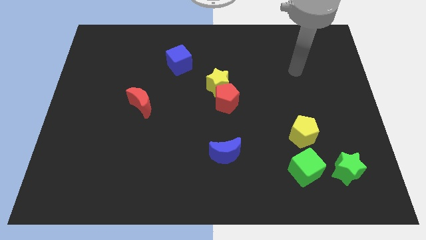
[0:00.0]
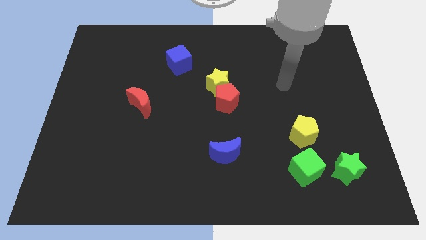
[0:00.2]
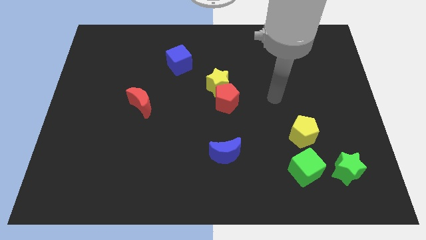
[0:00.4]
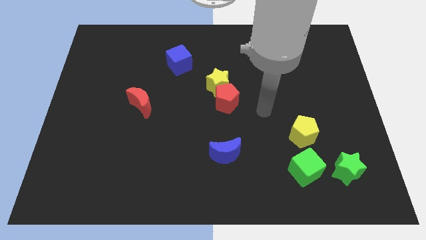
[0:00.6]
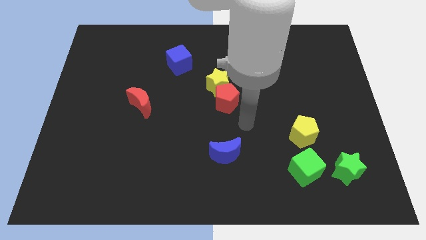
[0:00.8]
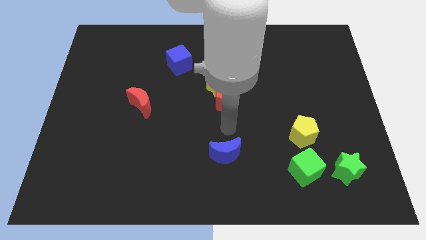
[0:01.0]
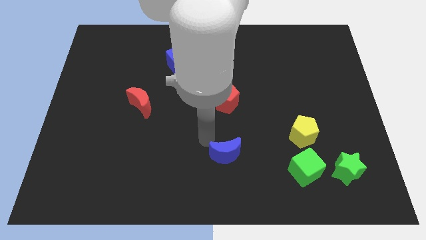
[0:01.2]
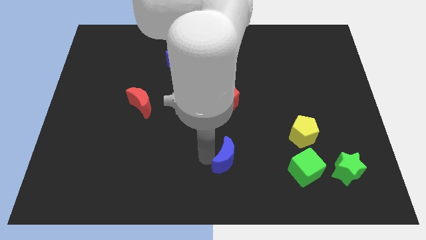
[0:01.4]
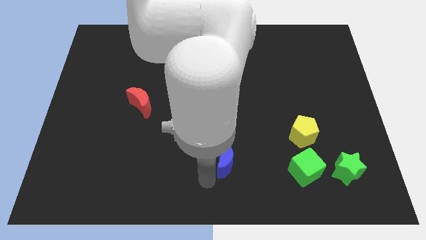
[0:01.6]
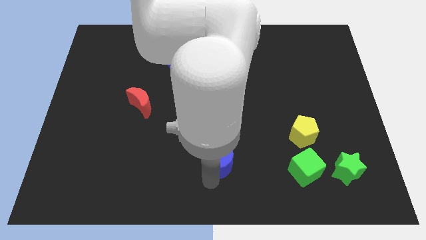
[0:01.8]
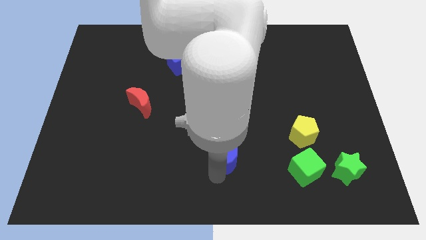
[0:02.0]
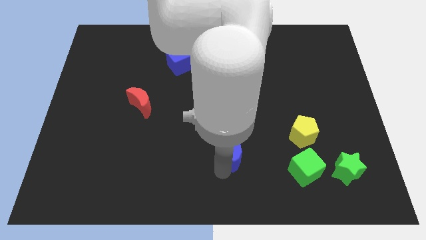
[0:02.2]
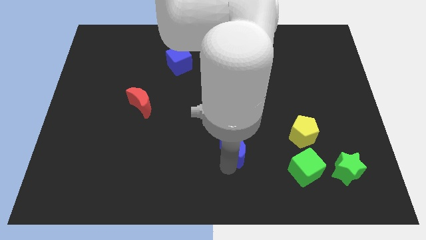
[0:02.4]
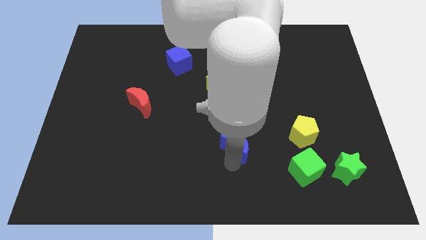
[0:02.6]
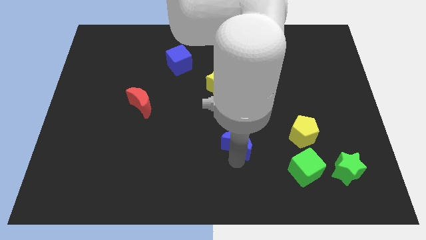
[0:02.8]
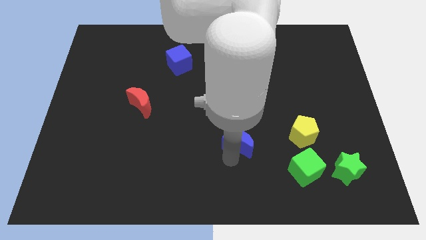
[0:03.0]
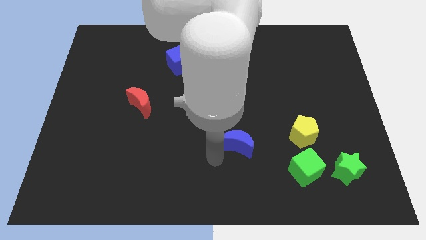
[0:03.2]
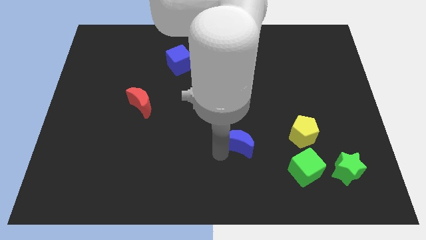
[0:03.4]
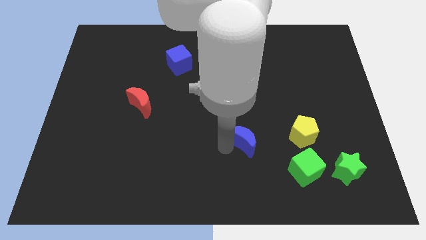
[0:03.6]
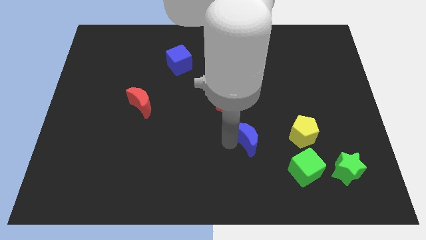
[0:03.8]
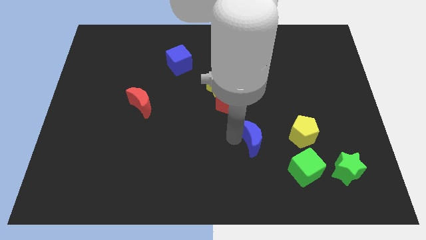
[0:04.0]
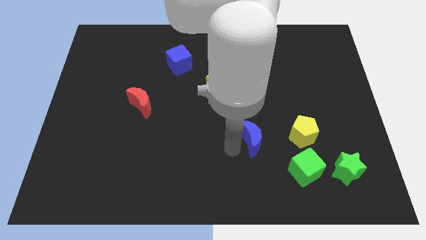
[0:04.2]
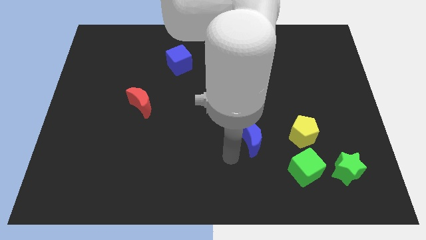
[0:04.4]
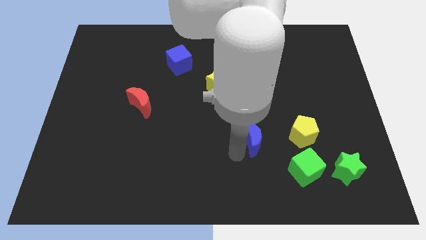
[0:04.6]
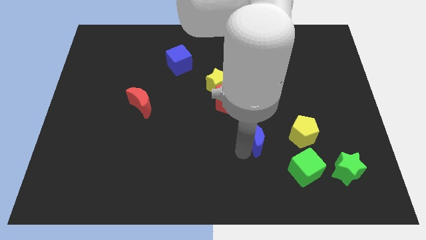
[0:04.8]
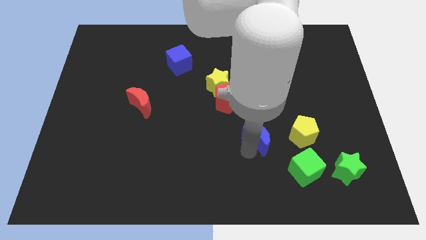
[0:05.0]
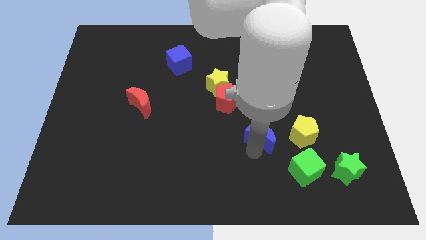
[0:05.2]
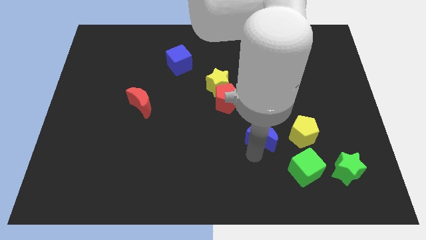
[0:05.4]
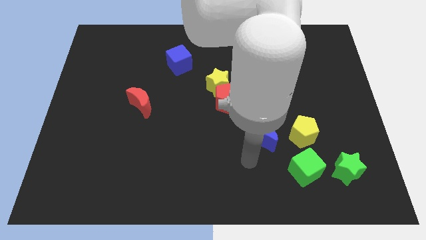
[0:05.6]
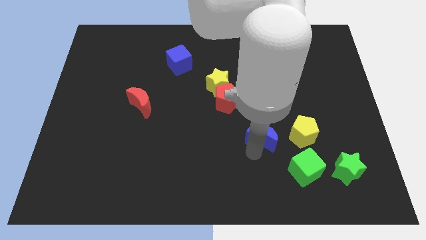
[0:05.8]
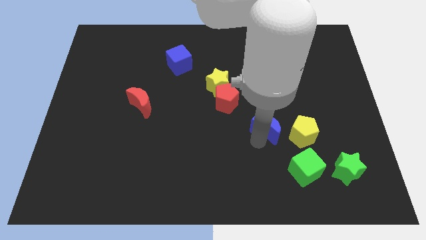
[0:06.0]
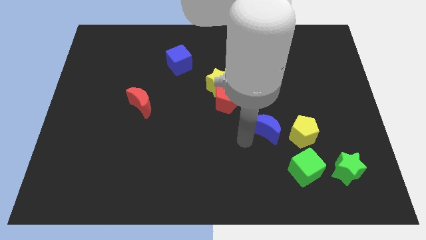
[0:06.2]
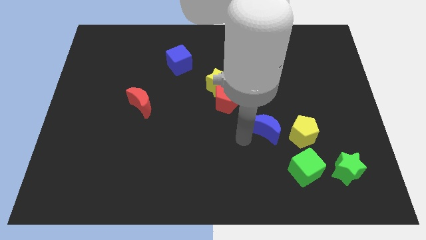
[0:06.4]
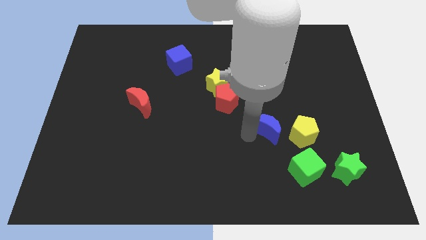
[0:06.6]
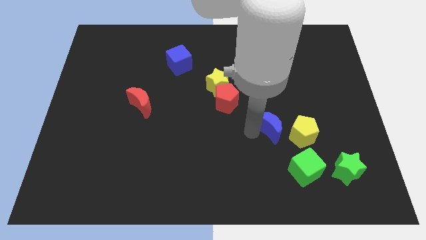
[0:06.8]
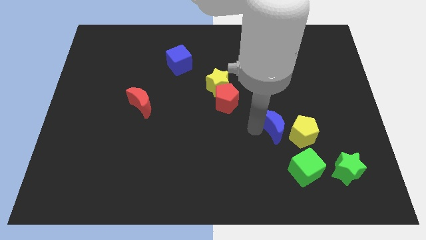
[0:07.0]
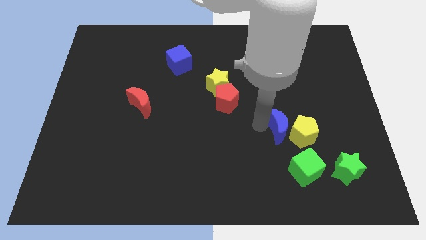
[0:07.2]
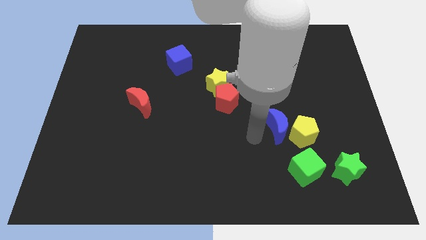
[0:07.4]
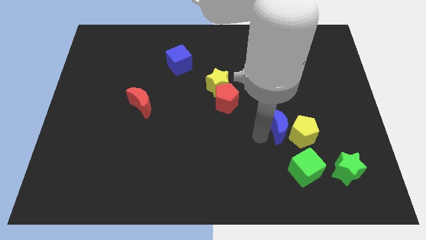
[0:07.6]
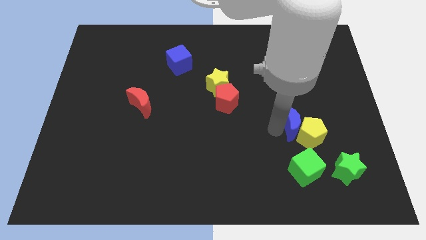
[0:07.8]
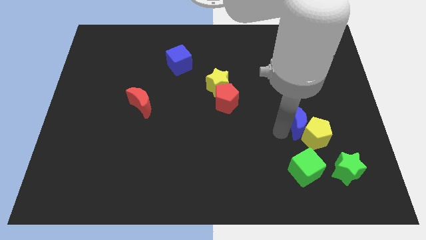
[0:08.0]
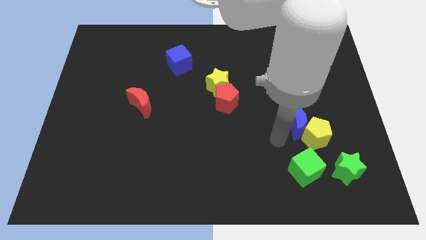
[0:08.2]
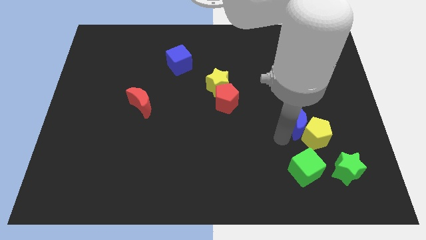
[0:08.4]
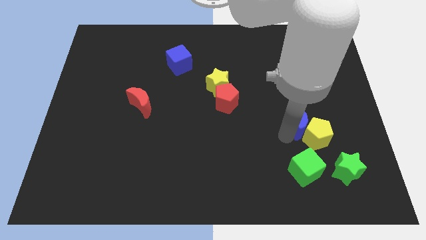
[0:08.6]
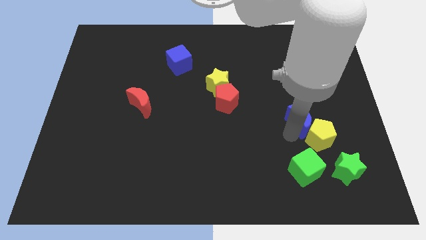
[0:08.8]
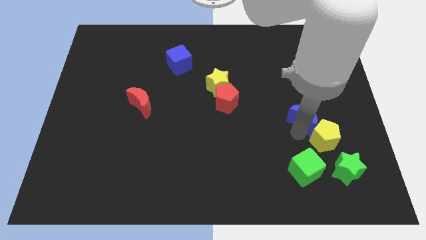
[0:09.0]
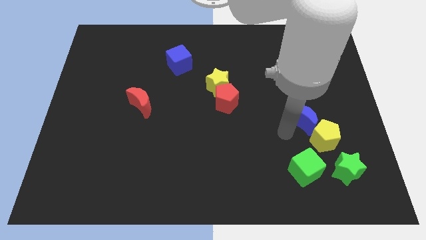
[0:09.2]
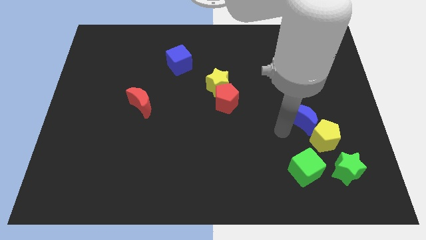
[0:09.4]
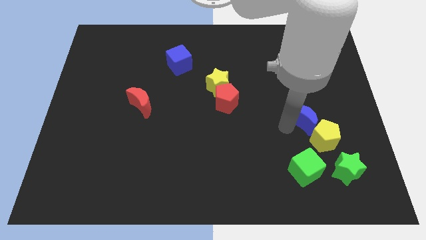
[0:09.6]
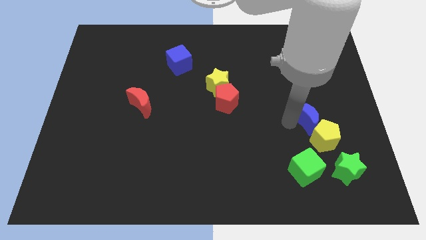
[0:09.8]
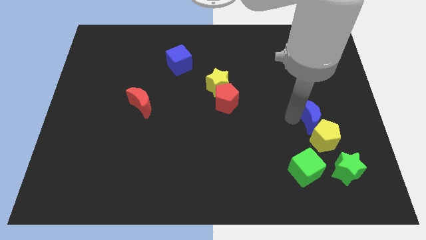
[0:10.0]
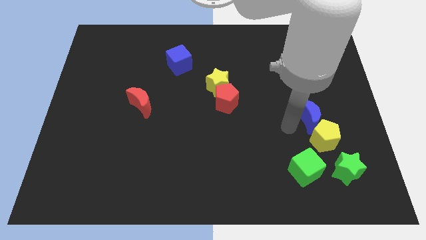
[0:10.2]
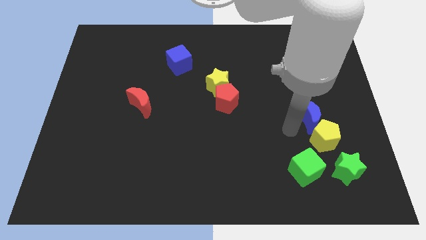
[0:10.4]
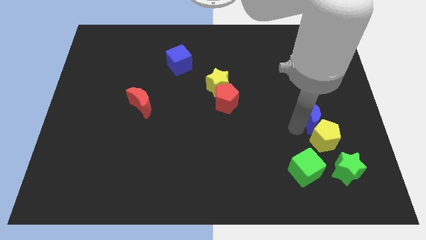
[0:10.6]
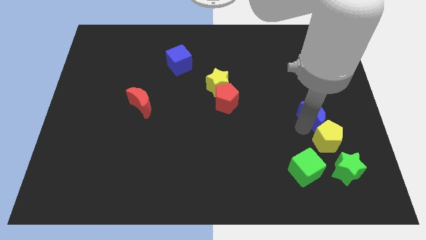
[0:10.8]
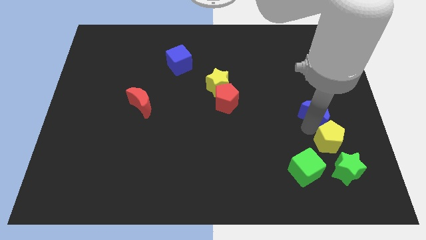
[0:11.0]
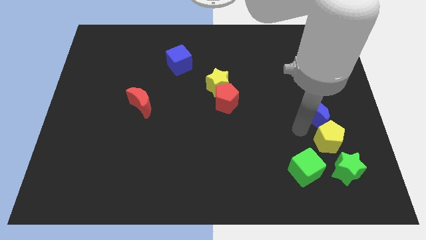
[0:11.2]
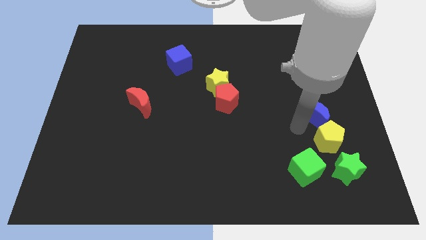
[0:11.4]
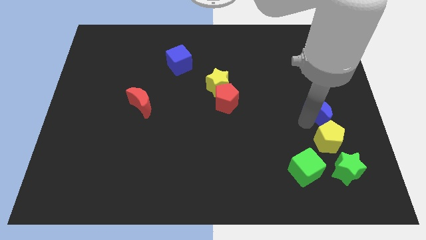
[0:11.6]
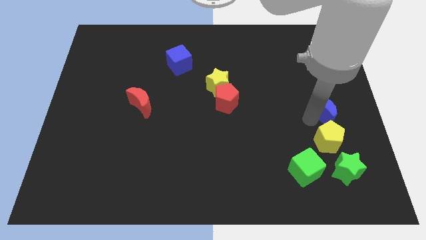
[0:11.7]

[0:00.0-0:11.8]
move the blue moon to the right side of the board

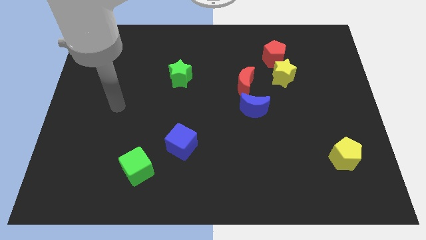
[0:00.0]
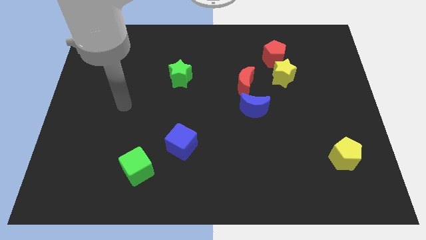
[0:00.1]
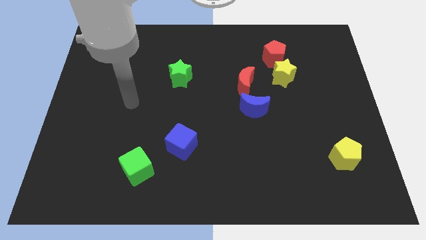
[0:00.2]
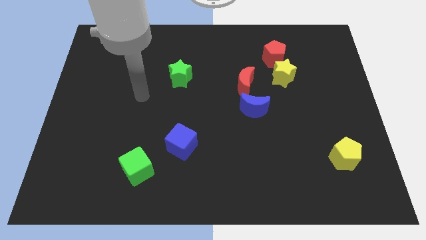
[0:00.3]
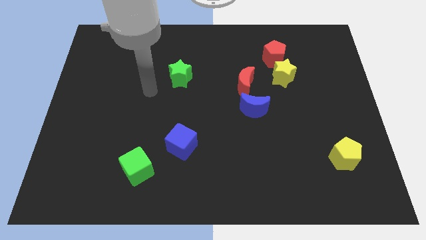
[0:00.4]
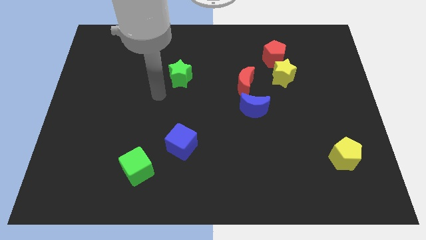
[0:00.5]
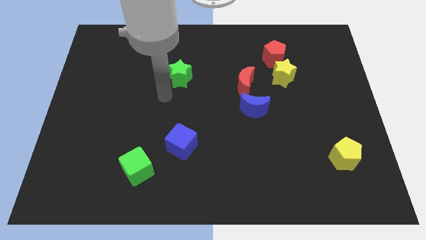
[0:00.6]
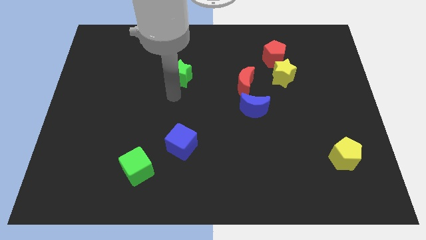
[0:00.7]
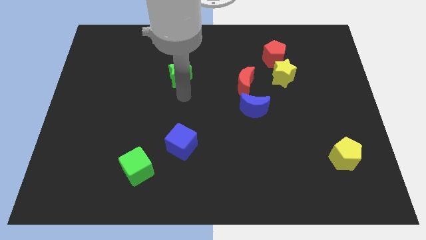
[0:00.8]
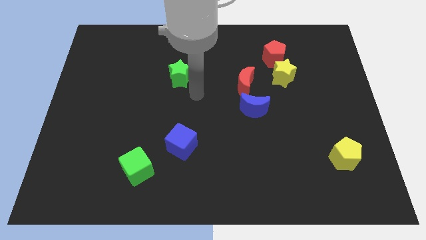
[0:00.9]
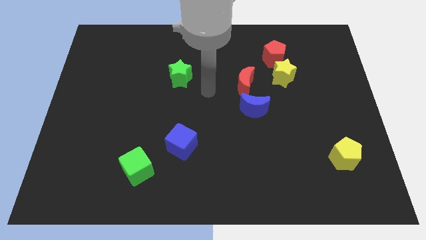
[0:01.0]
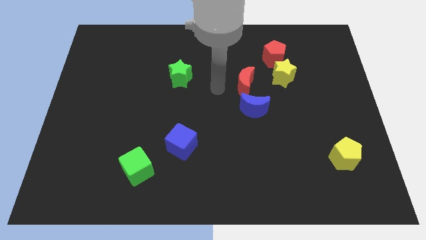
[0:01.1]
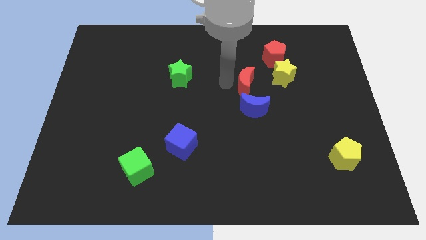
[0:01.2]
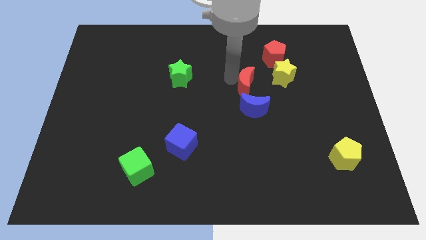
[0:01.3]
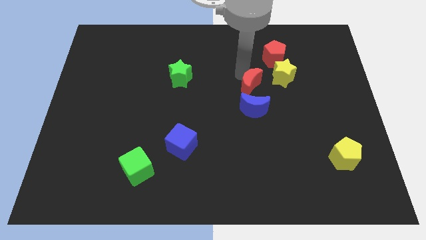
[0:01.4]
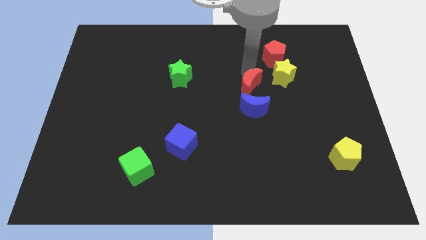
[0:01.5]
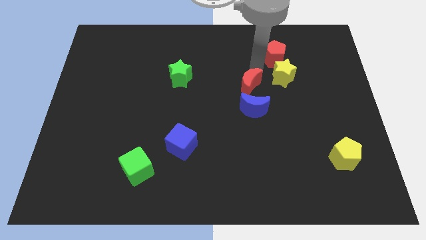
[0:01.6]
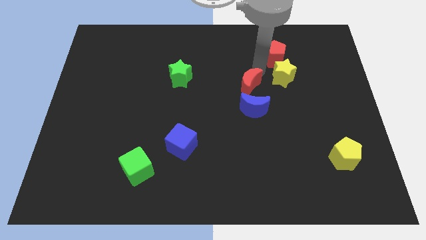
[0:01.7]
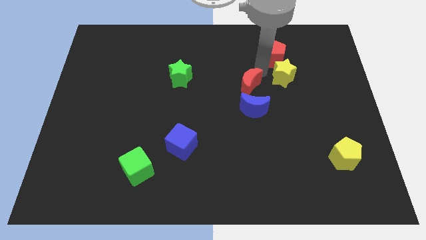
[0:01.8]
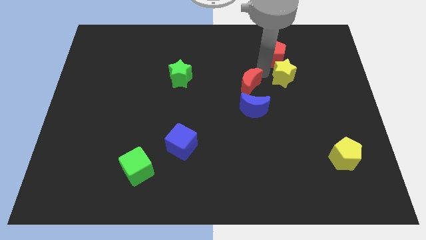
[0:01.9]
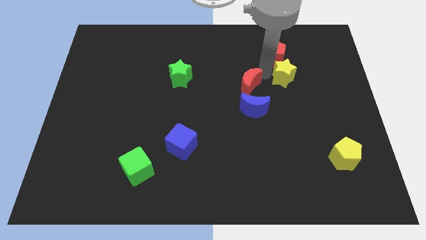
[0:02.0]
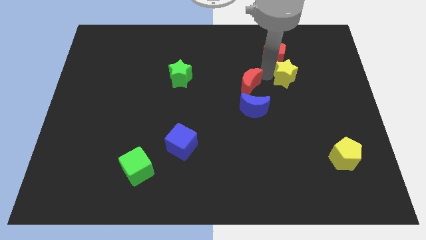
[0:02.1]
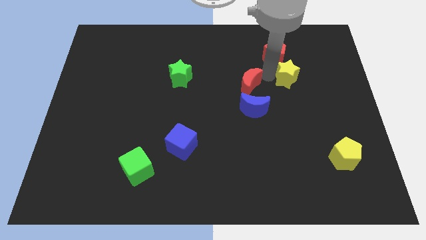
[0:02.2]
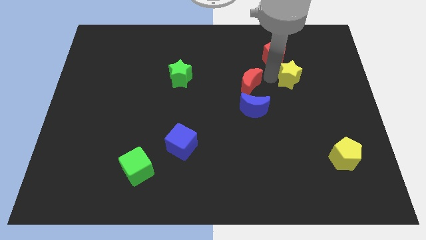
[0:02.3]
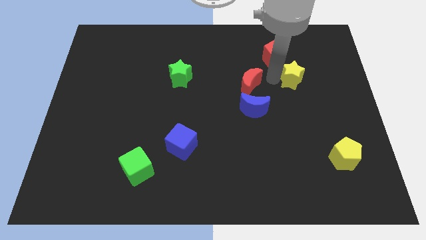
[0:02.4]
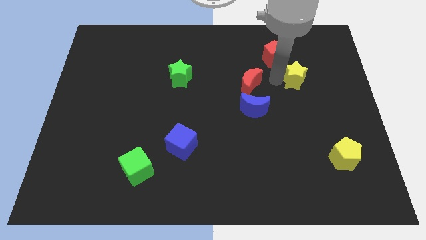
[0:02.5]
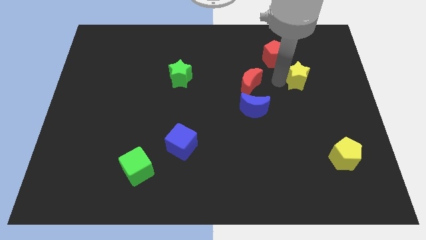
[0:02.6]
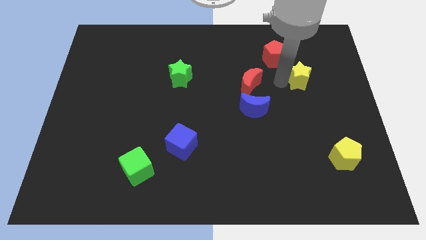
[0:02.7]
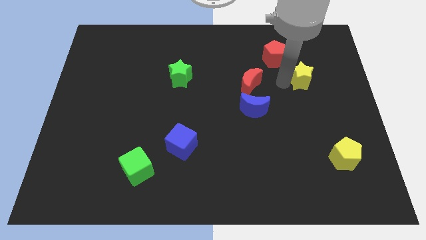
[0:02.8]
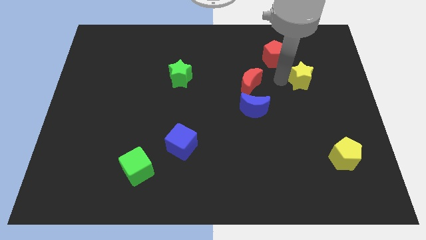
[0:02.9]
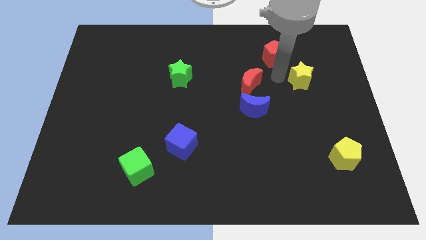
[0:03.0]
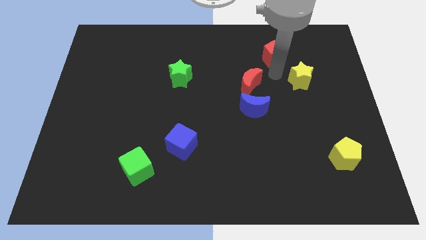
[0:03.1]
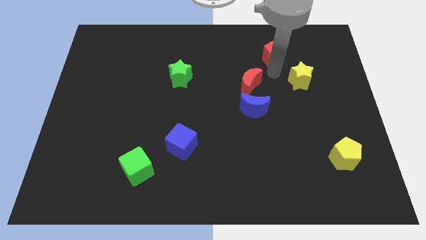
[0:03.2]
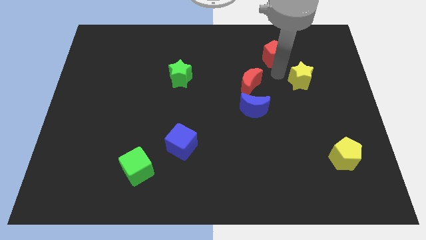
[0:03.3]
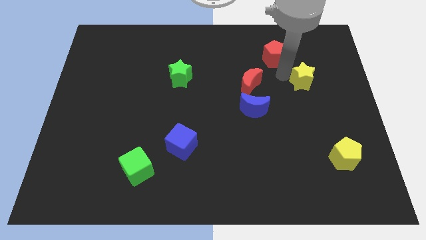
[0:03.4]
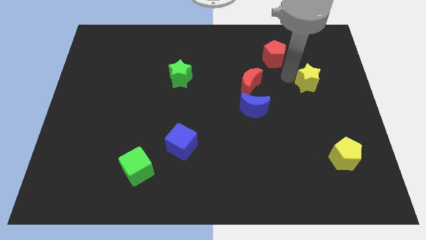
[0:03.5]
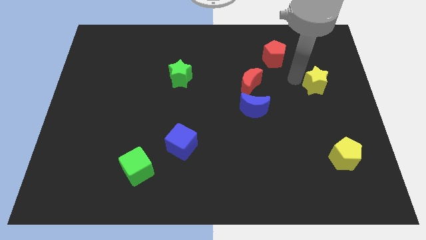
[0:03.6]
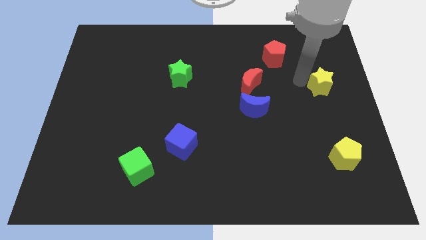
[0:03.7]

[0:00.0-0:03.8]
put the yellow star to the center right
